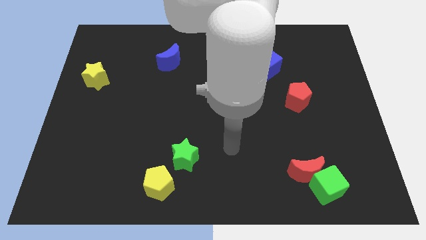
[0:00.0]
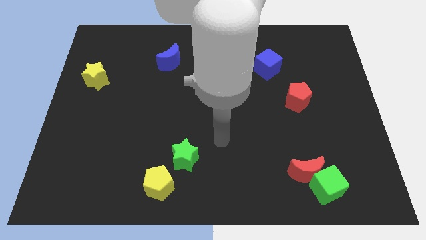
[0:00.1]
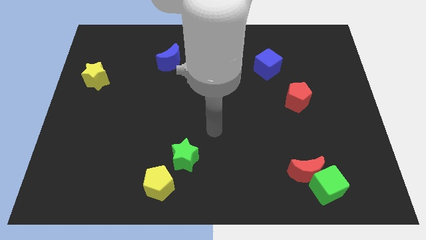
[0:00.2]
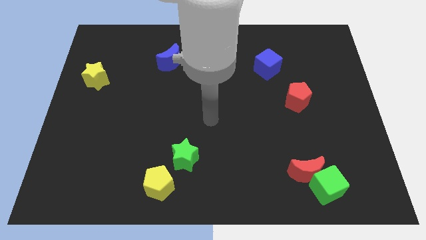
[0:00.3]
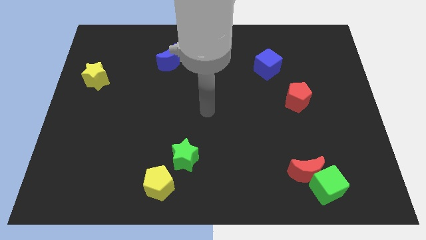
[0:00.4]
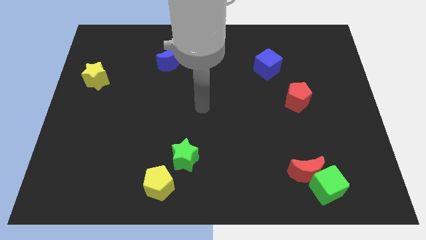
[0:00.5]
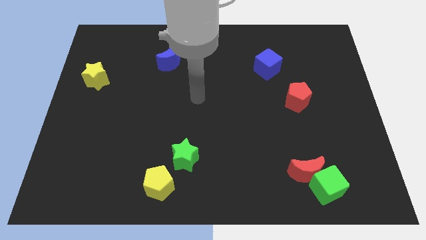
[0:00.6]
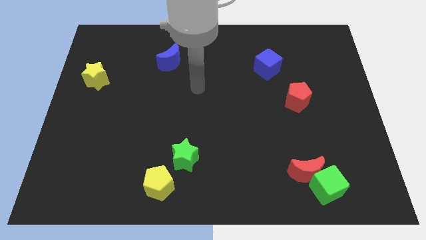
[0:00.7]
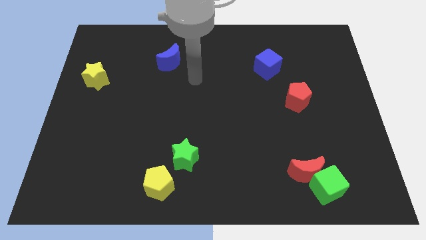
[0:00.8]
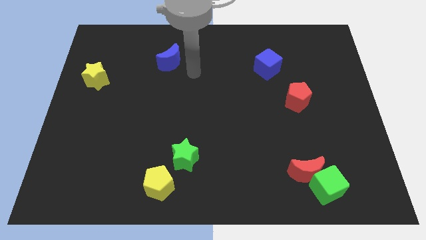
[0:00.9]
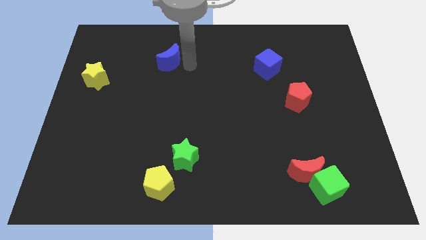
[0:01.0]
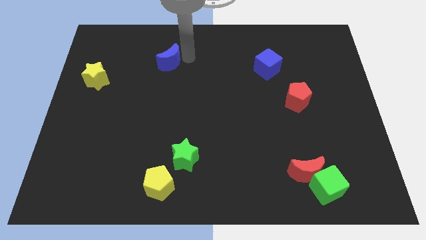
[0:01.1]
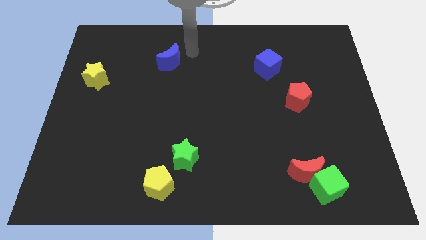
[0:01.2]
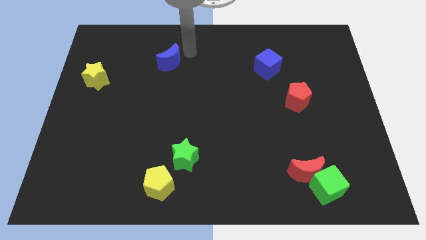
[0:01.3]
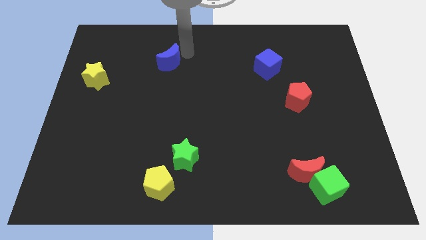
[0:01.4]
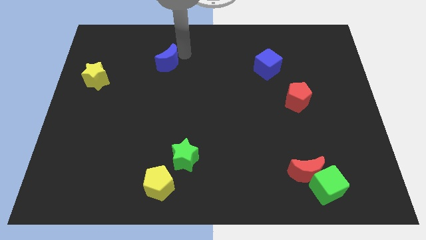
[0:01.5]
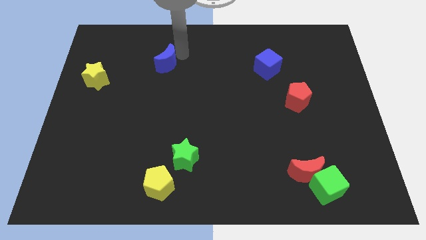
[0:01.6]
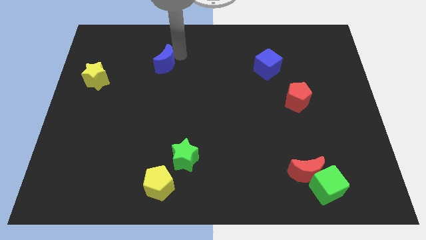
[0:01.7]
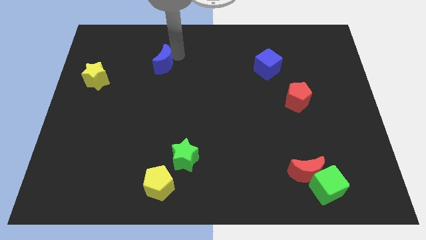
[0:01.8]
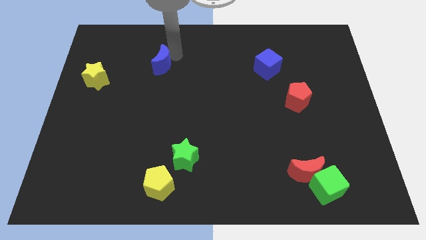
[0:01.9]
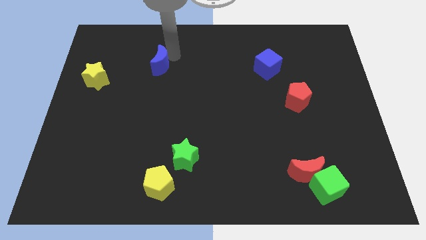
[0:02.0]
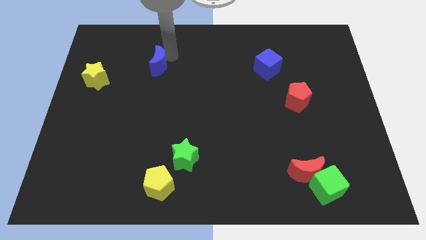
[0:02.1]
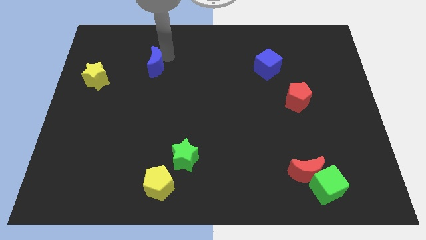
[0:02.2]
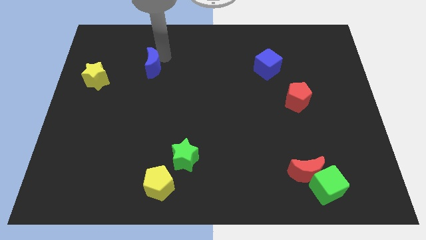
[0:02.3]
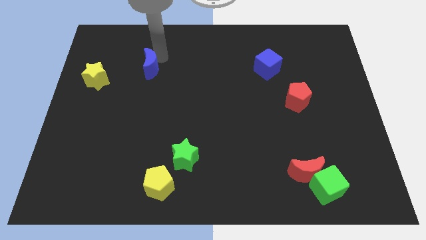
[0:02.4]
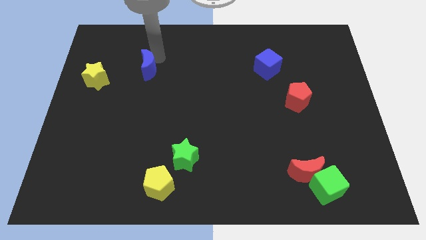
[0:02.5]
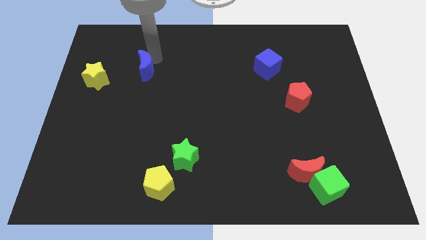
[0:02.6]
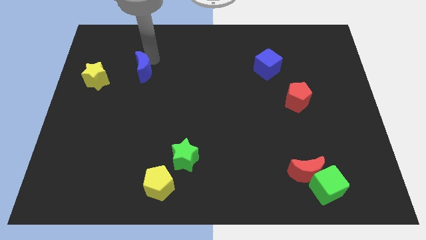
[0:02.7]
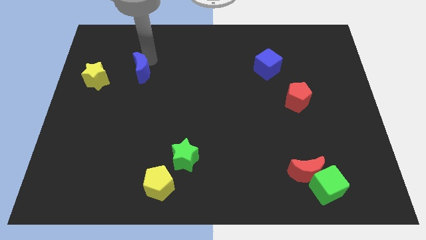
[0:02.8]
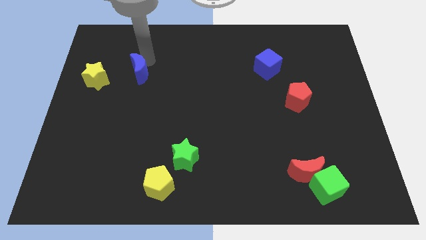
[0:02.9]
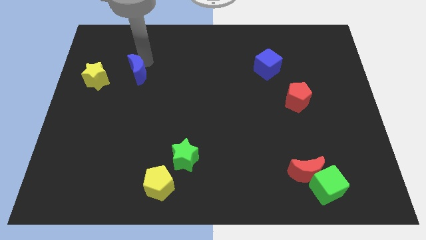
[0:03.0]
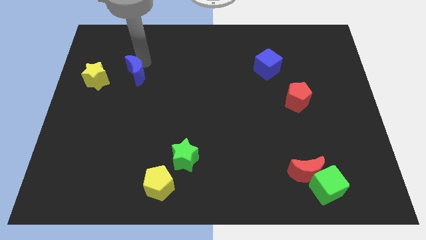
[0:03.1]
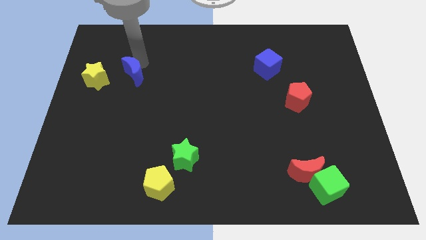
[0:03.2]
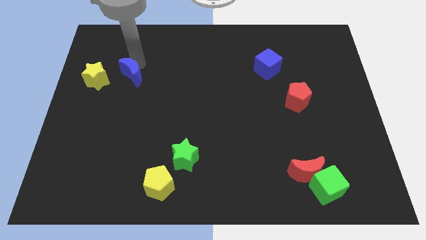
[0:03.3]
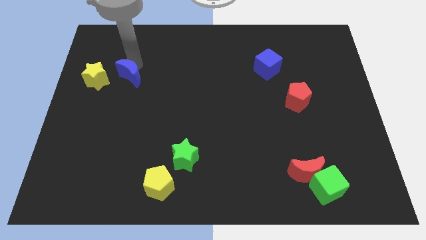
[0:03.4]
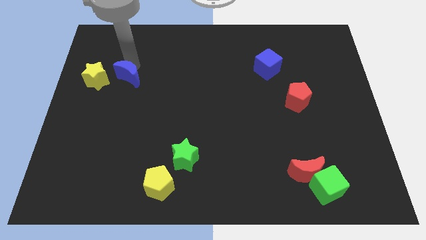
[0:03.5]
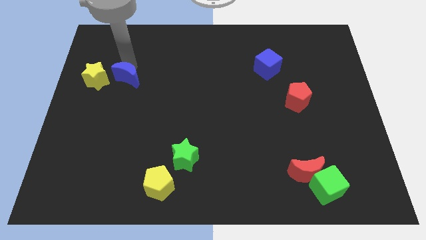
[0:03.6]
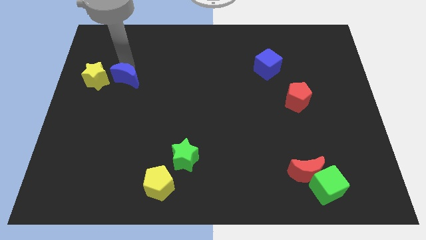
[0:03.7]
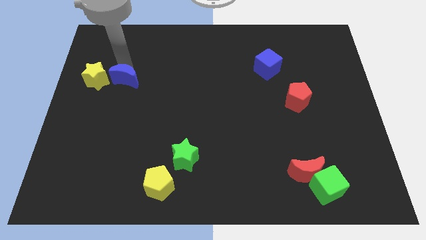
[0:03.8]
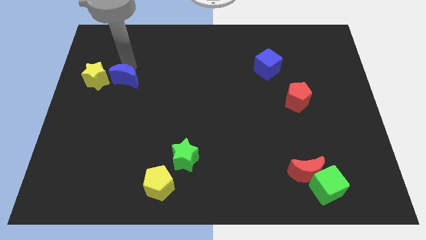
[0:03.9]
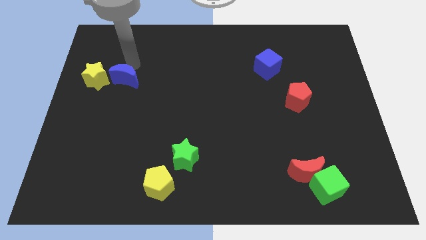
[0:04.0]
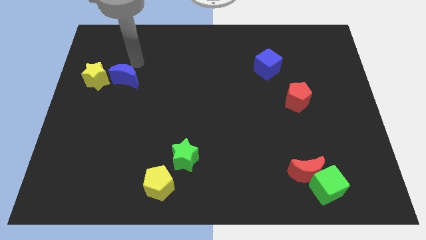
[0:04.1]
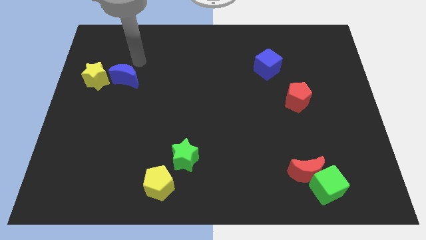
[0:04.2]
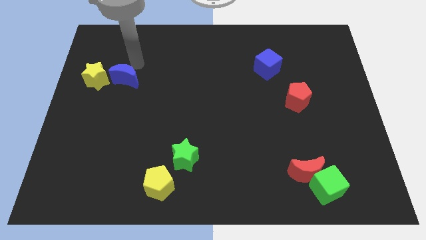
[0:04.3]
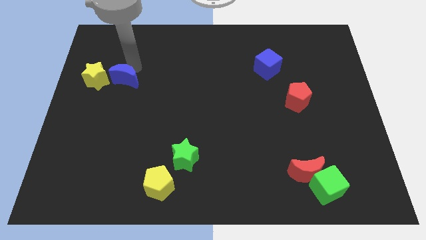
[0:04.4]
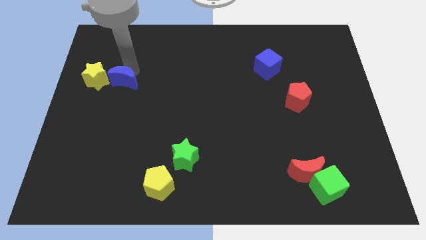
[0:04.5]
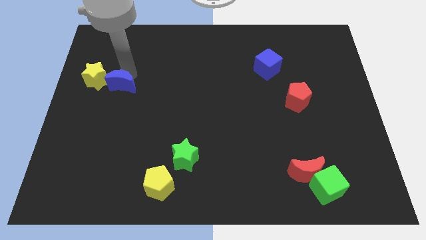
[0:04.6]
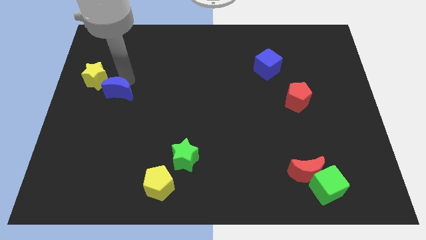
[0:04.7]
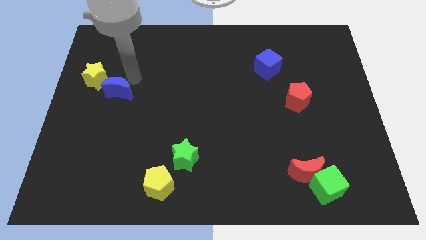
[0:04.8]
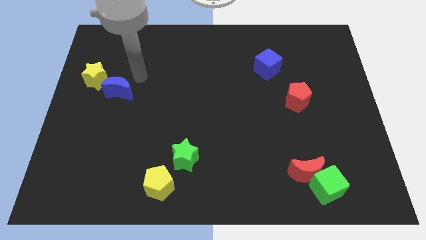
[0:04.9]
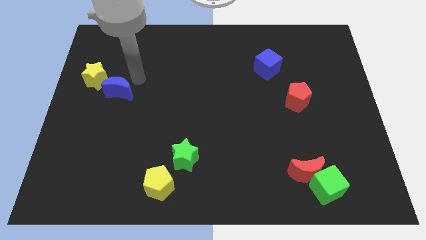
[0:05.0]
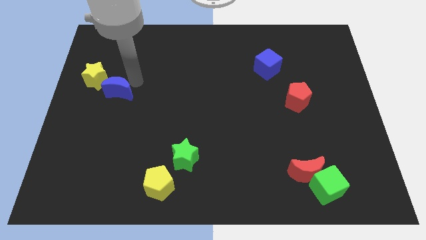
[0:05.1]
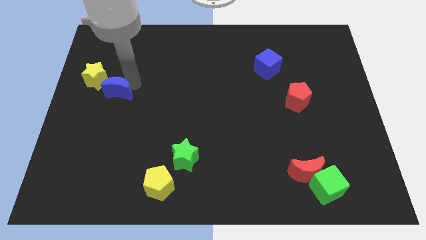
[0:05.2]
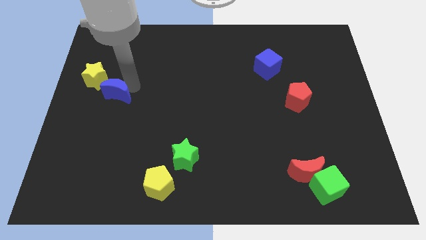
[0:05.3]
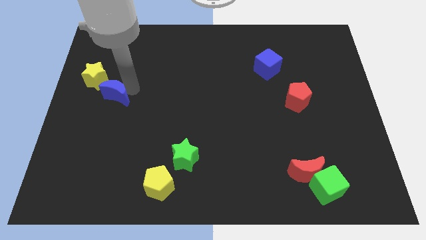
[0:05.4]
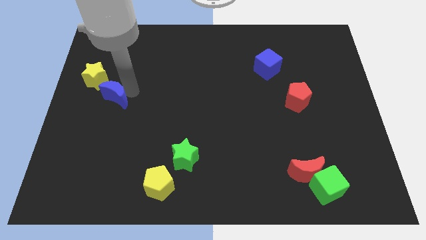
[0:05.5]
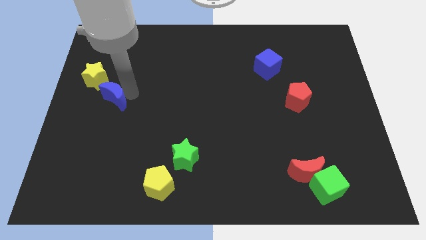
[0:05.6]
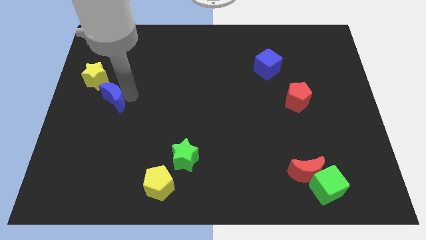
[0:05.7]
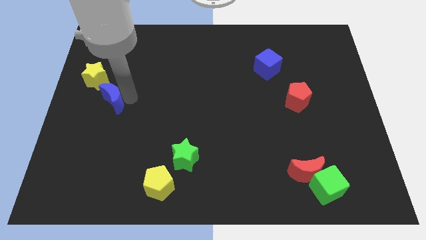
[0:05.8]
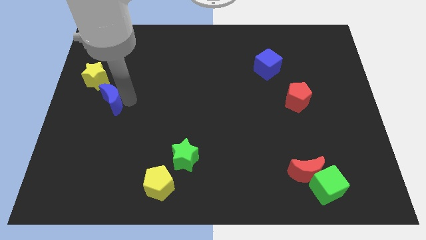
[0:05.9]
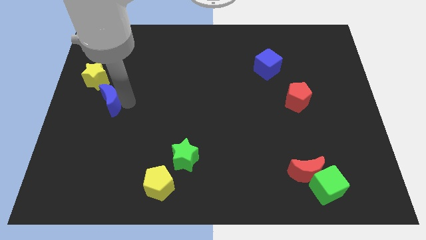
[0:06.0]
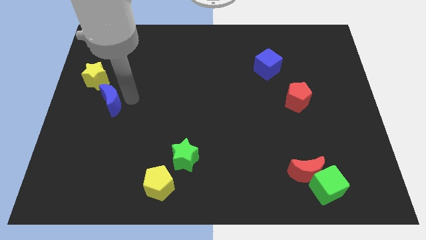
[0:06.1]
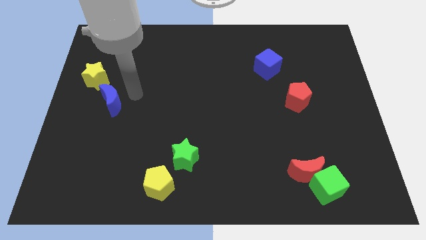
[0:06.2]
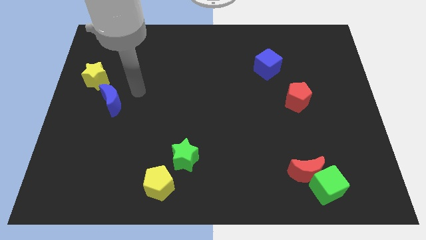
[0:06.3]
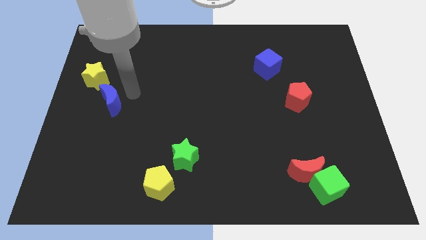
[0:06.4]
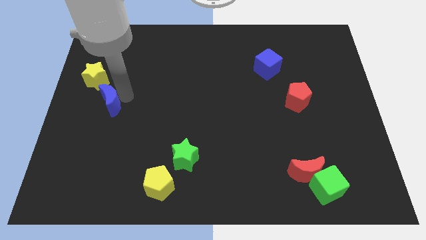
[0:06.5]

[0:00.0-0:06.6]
slide the blue moon below the yellow star
